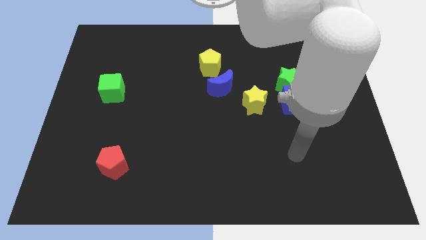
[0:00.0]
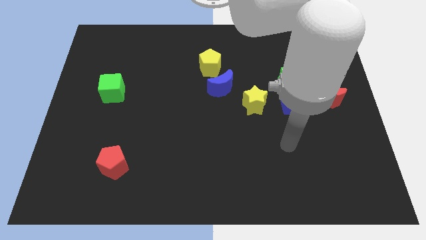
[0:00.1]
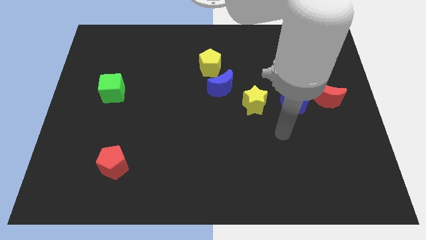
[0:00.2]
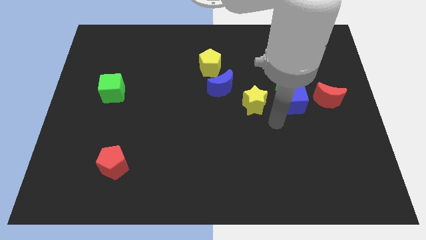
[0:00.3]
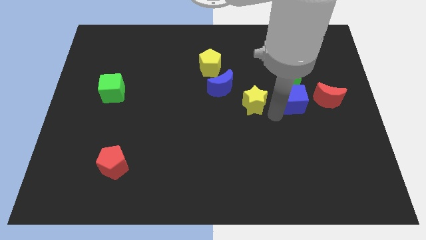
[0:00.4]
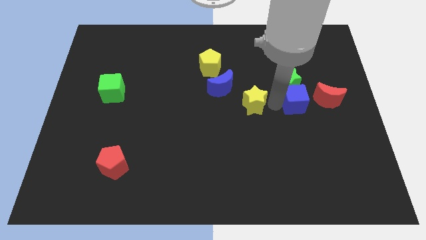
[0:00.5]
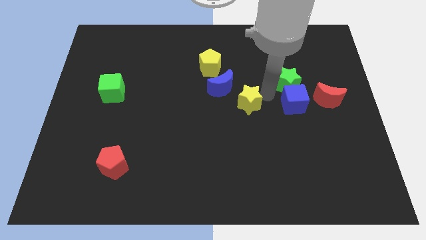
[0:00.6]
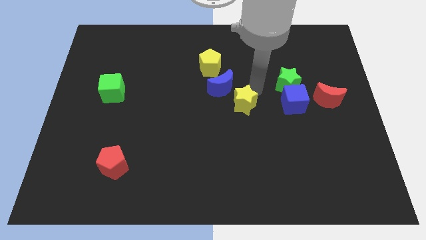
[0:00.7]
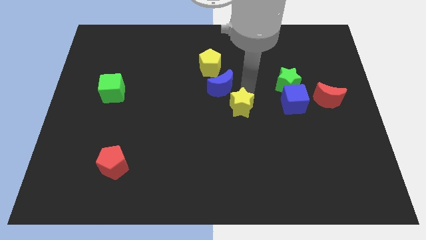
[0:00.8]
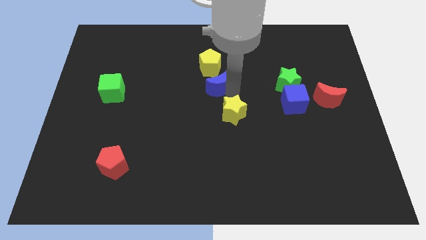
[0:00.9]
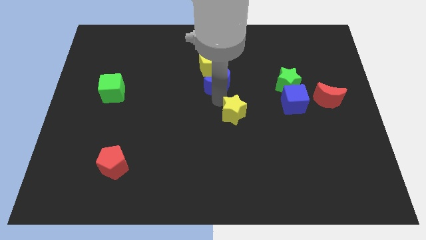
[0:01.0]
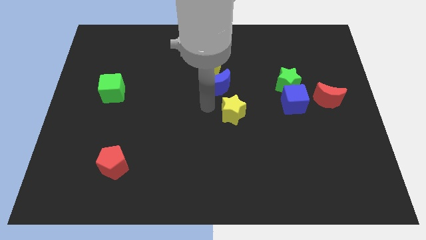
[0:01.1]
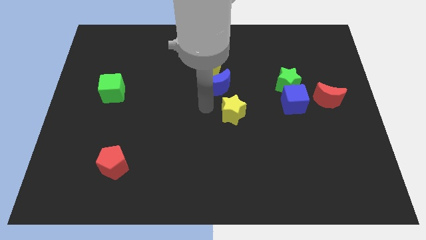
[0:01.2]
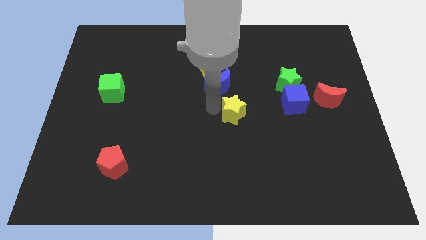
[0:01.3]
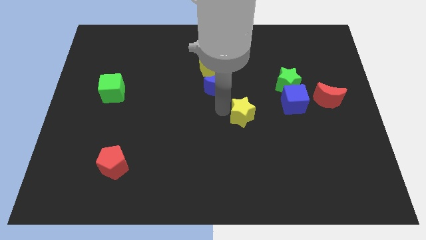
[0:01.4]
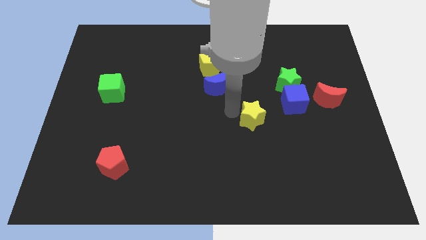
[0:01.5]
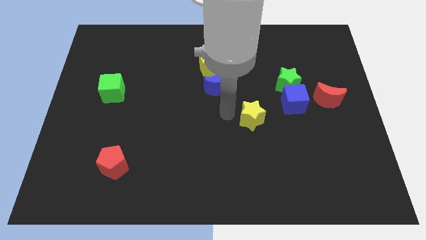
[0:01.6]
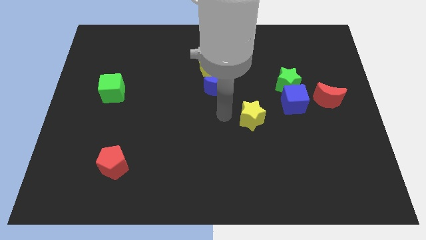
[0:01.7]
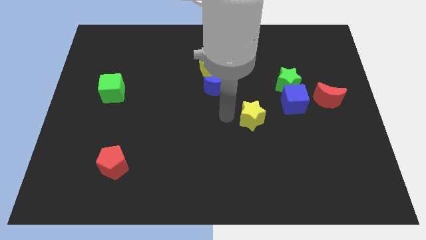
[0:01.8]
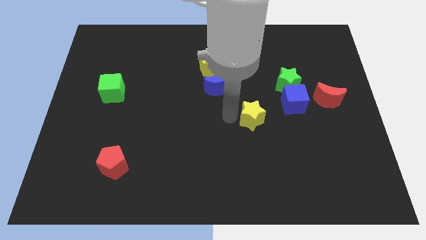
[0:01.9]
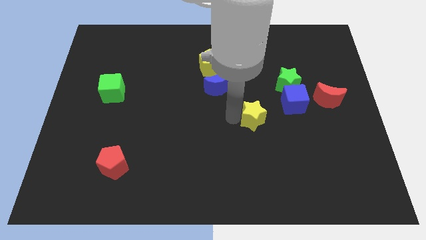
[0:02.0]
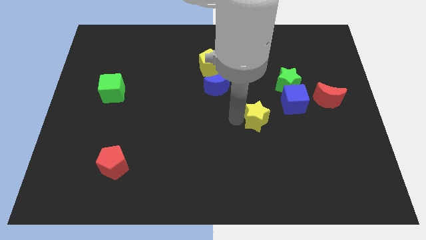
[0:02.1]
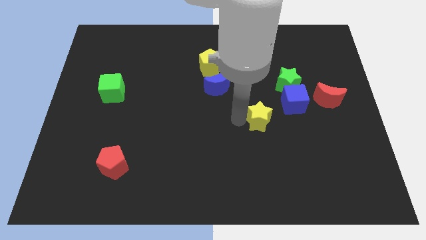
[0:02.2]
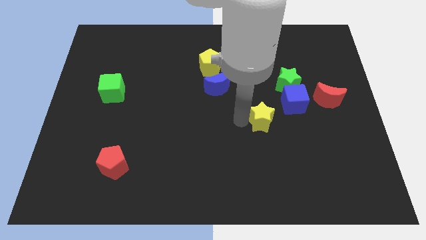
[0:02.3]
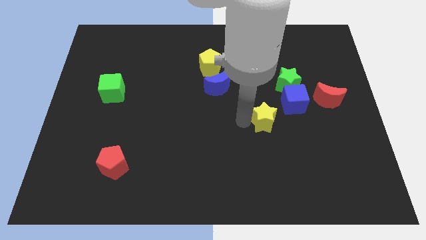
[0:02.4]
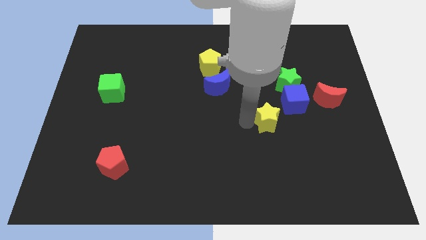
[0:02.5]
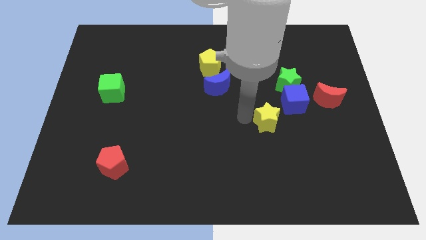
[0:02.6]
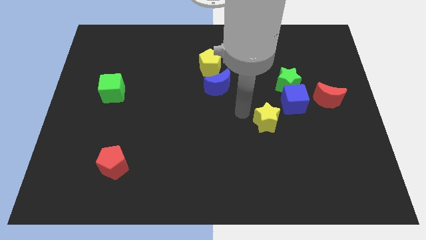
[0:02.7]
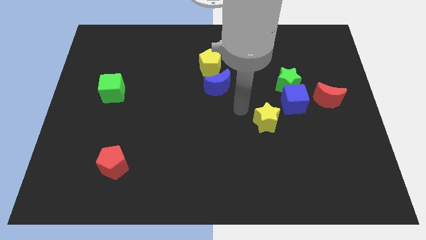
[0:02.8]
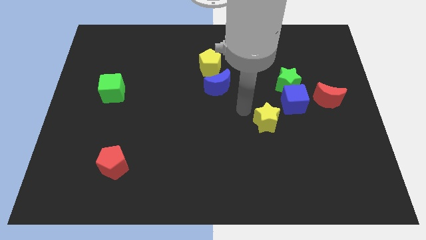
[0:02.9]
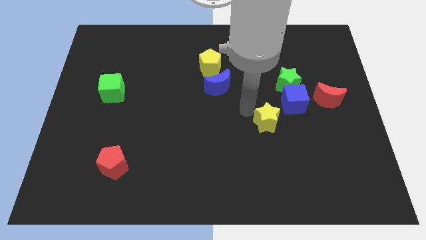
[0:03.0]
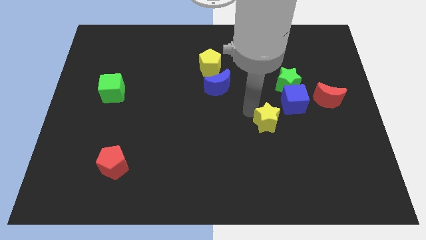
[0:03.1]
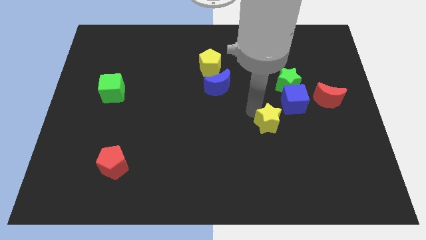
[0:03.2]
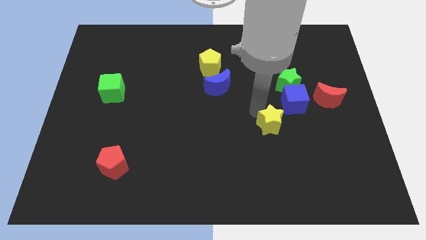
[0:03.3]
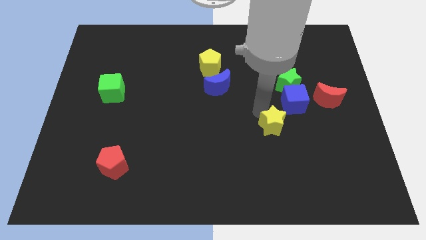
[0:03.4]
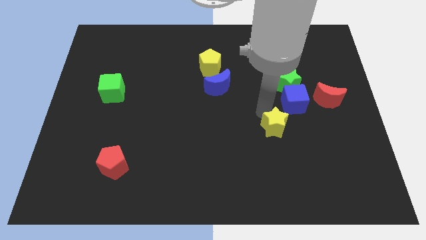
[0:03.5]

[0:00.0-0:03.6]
move the yellow star diagonally downwards and right a bit

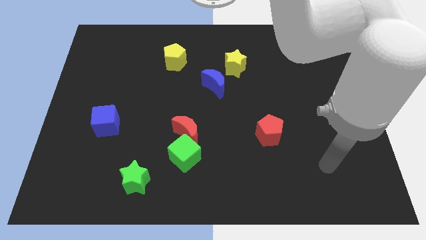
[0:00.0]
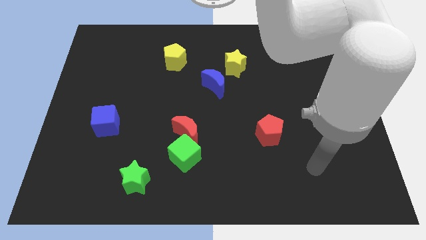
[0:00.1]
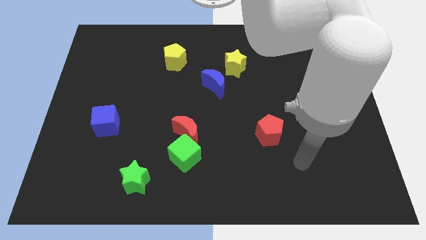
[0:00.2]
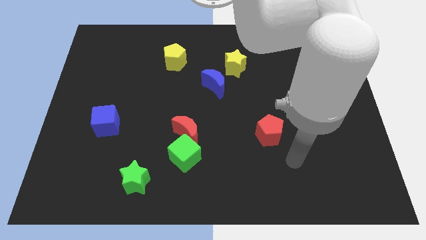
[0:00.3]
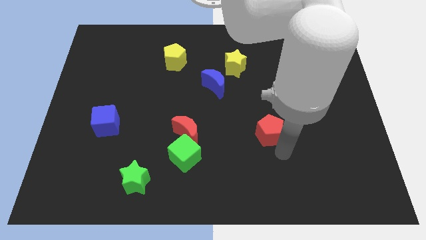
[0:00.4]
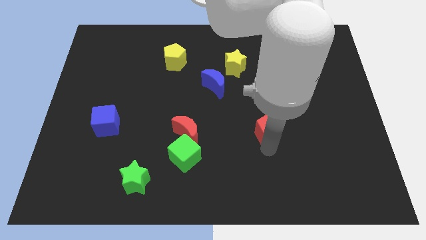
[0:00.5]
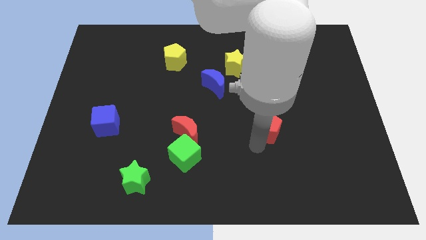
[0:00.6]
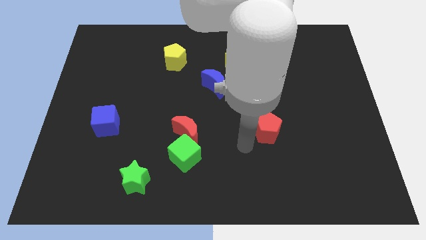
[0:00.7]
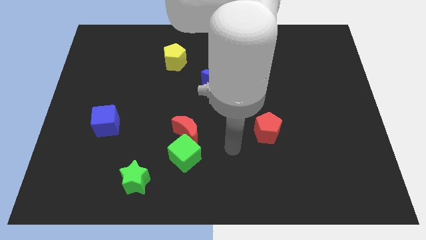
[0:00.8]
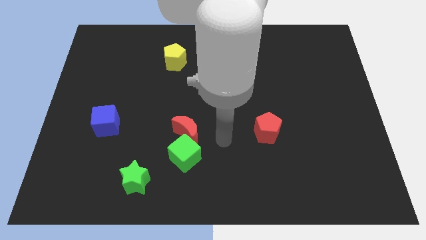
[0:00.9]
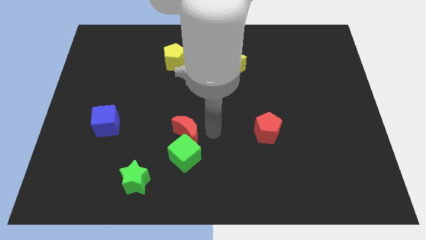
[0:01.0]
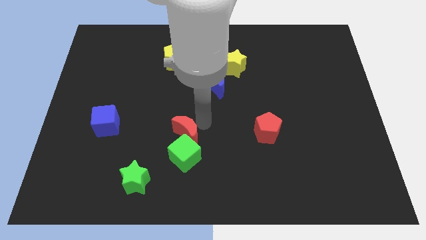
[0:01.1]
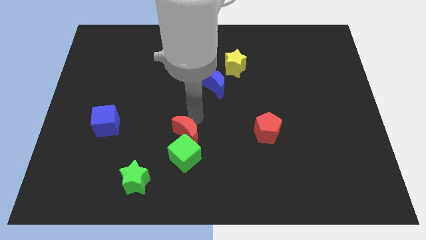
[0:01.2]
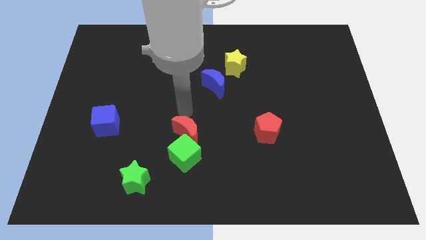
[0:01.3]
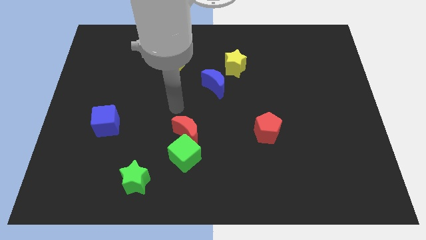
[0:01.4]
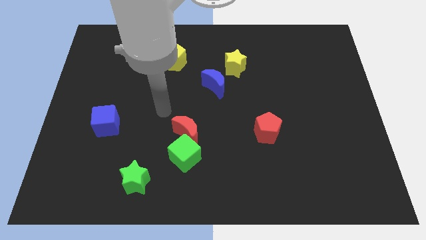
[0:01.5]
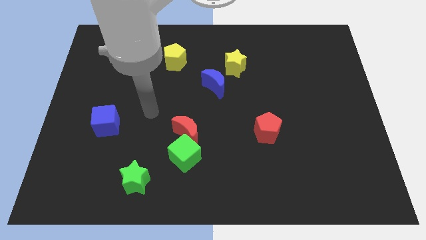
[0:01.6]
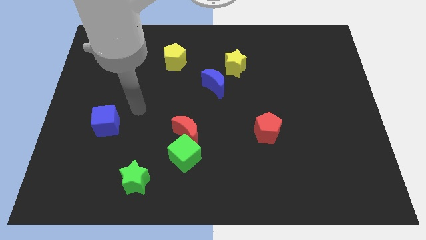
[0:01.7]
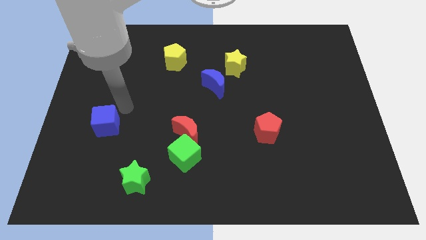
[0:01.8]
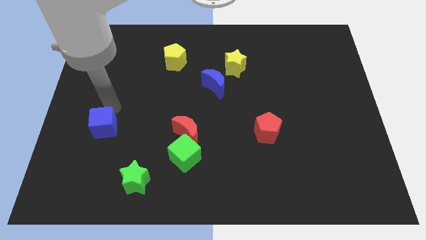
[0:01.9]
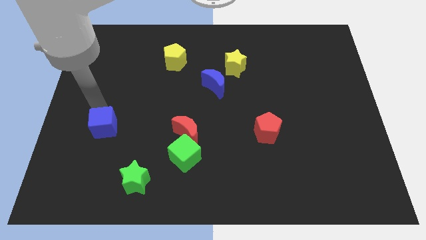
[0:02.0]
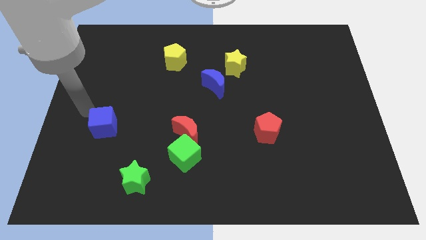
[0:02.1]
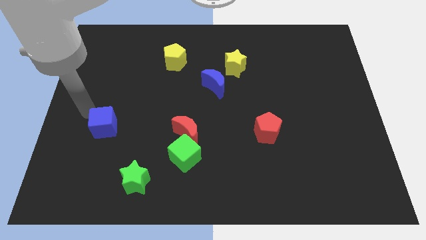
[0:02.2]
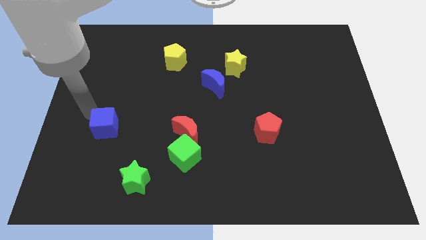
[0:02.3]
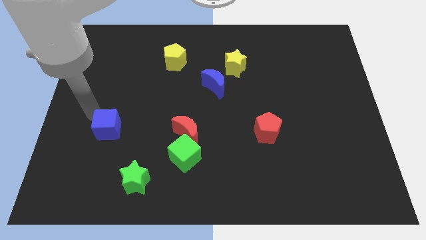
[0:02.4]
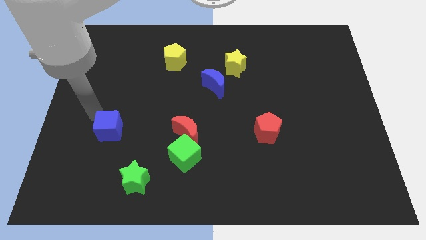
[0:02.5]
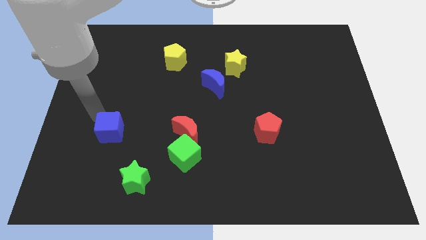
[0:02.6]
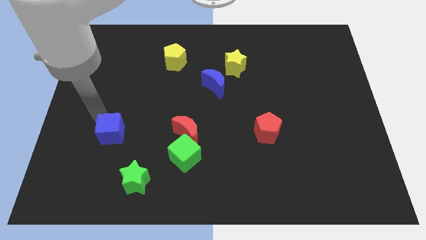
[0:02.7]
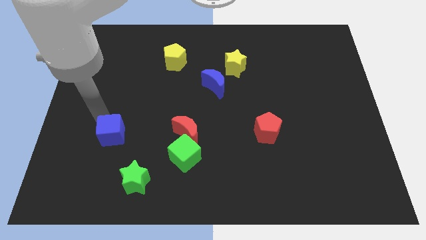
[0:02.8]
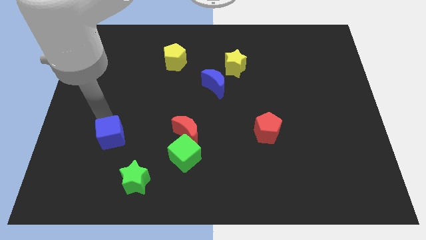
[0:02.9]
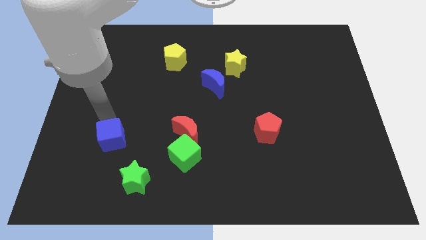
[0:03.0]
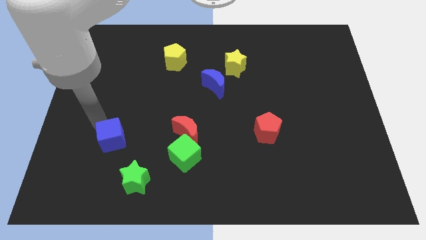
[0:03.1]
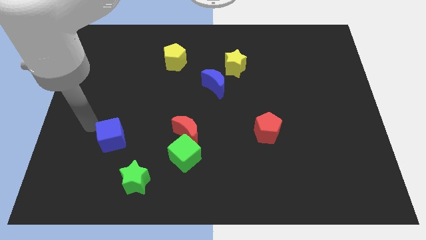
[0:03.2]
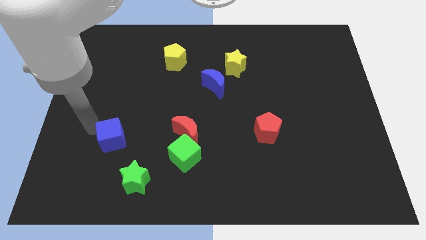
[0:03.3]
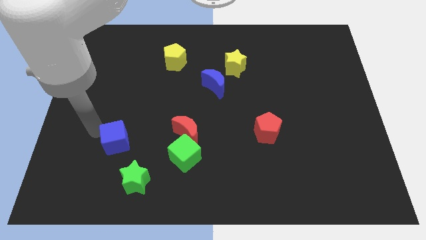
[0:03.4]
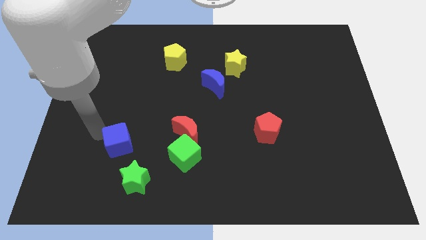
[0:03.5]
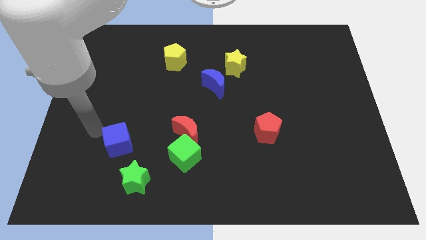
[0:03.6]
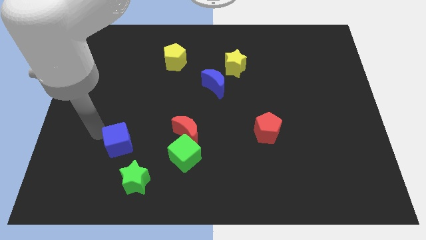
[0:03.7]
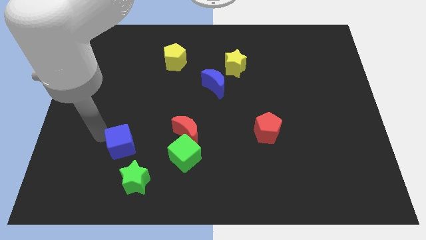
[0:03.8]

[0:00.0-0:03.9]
slightly push the blue cube down and right
